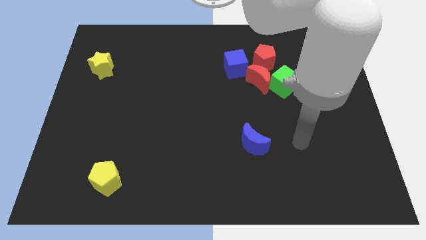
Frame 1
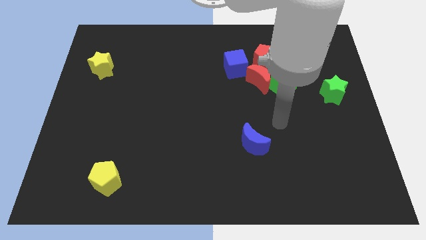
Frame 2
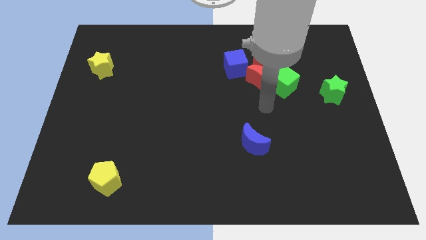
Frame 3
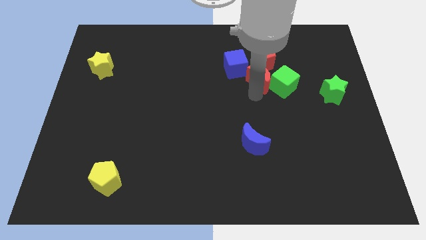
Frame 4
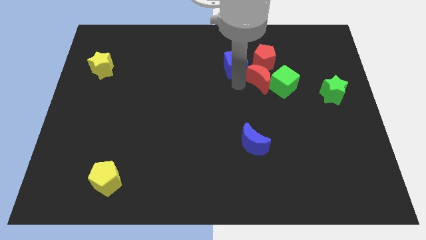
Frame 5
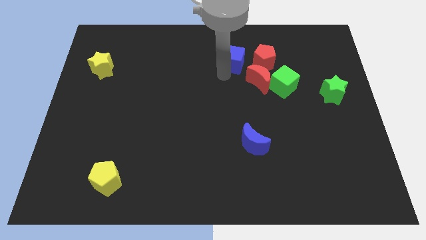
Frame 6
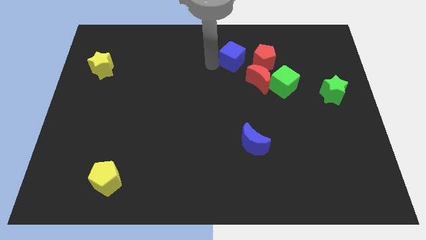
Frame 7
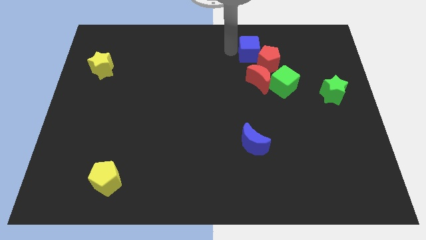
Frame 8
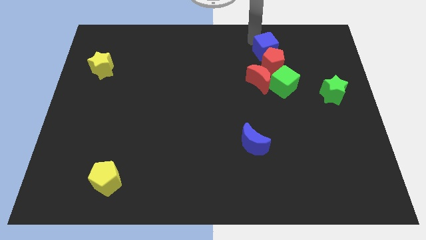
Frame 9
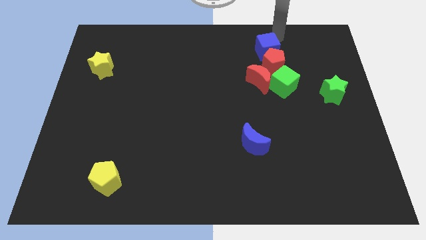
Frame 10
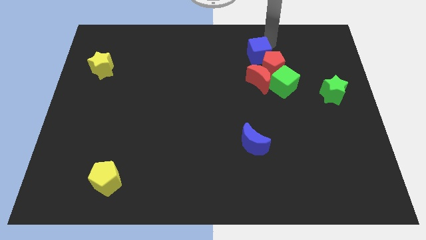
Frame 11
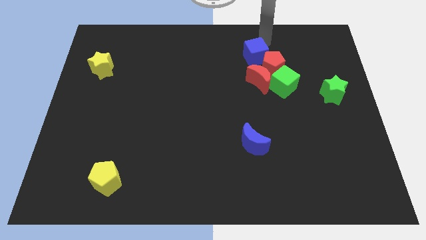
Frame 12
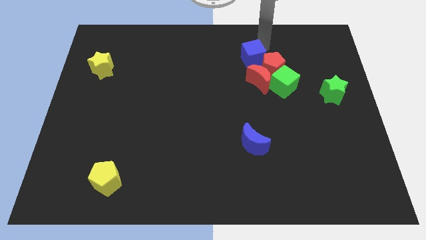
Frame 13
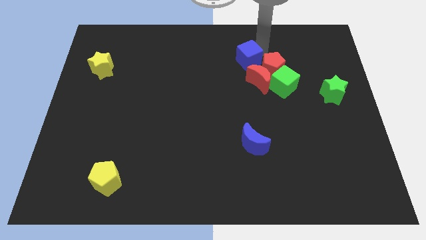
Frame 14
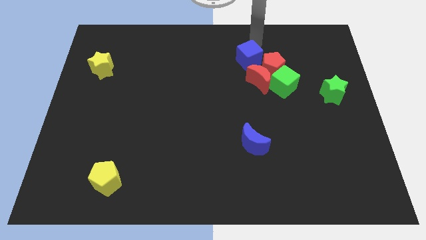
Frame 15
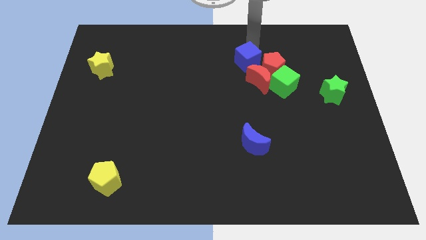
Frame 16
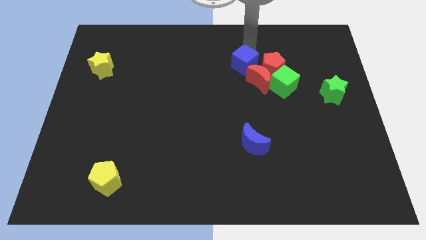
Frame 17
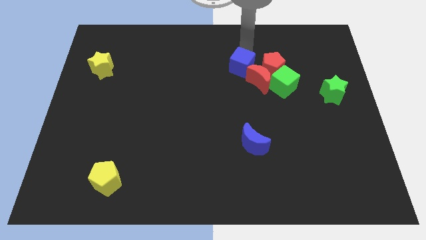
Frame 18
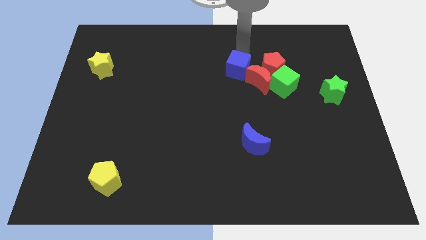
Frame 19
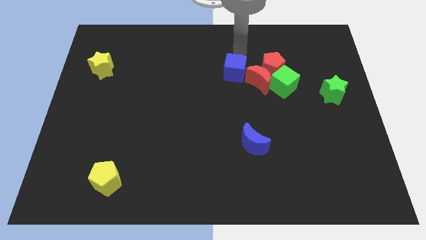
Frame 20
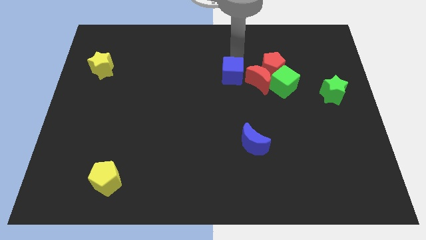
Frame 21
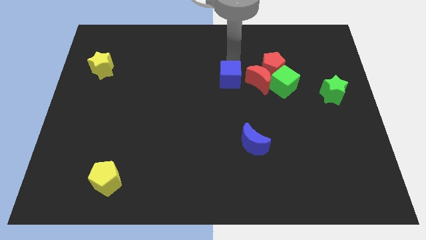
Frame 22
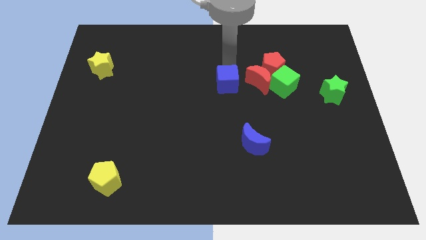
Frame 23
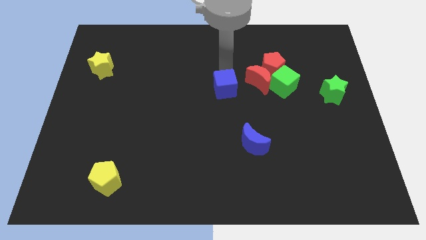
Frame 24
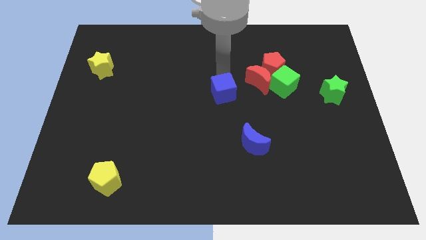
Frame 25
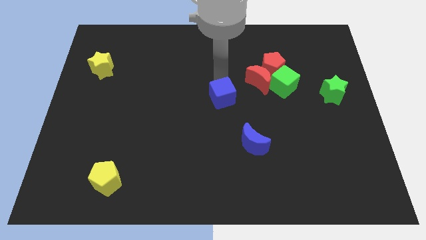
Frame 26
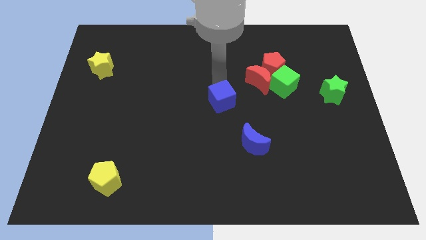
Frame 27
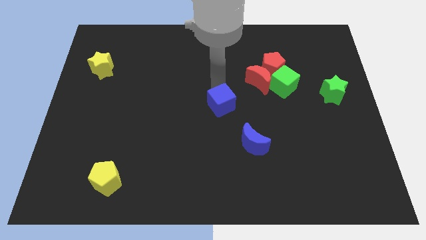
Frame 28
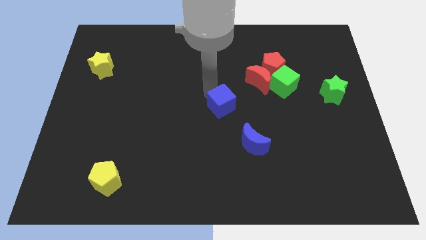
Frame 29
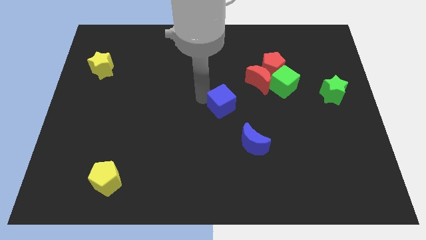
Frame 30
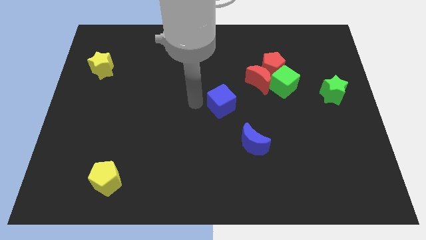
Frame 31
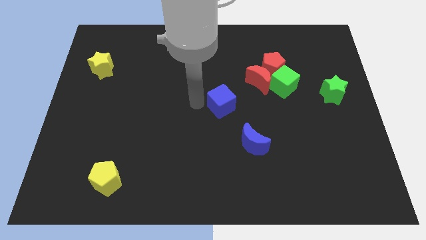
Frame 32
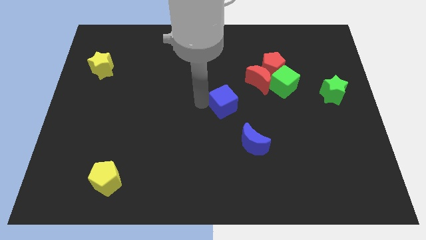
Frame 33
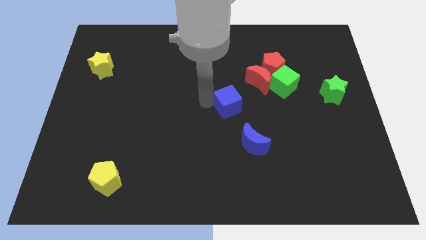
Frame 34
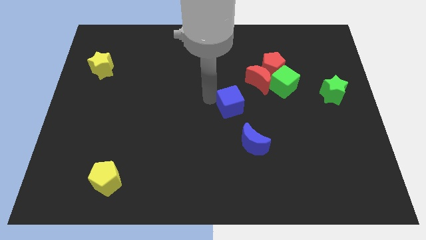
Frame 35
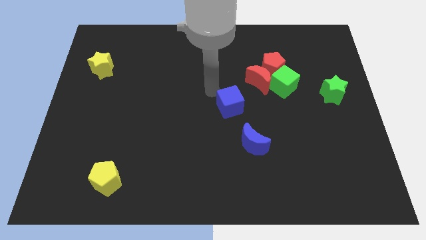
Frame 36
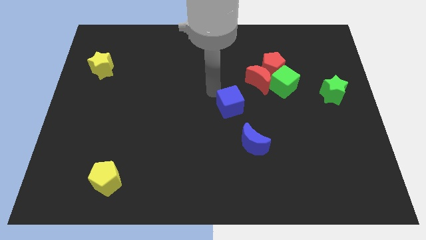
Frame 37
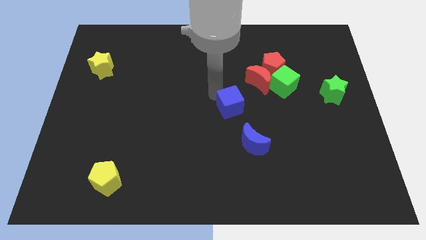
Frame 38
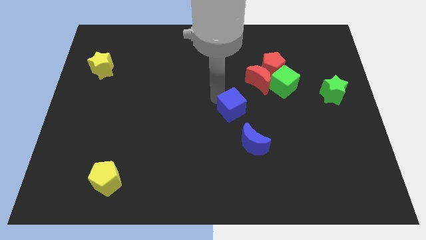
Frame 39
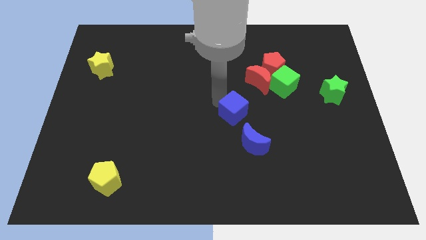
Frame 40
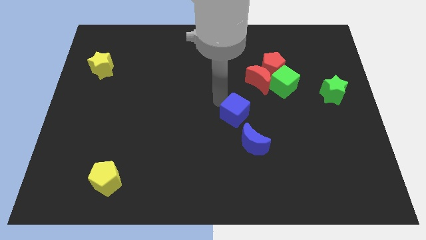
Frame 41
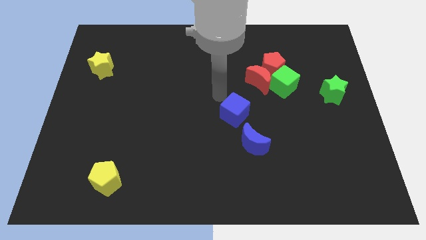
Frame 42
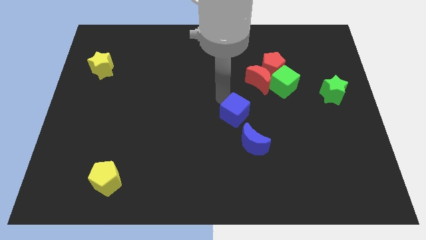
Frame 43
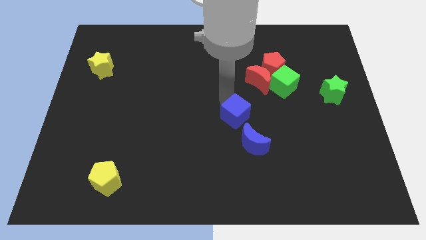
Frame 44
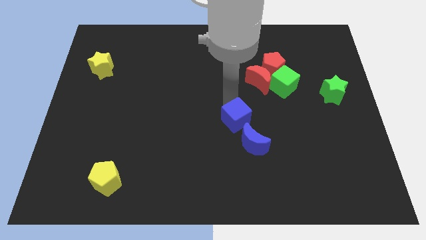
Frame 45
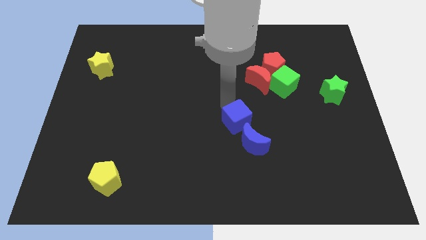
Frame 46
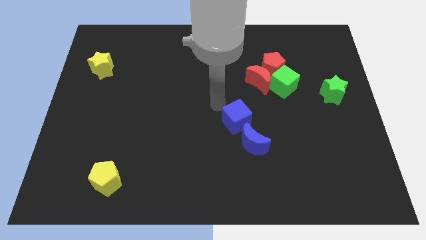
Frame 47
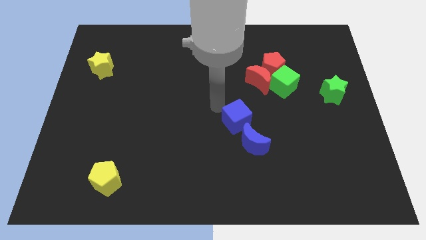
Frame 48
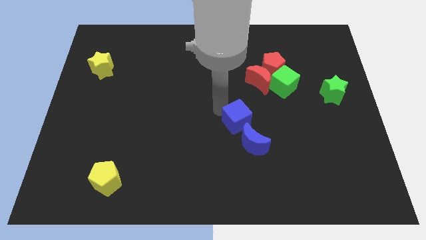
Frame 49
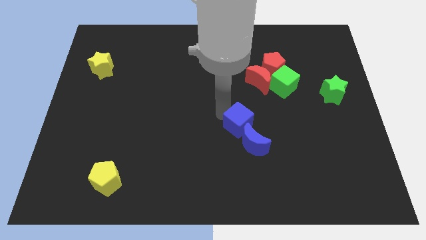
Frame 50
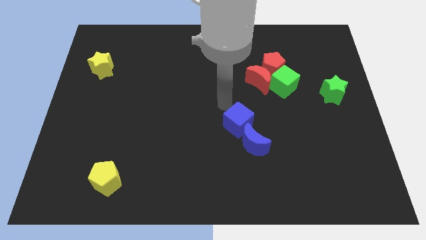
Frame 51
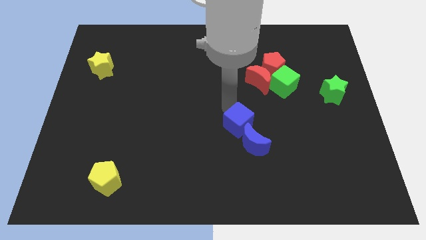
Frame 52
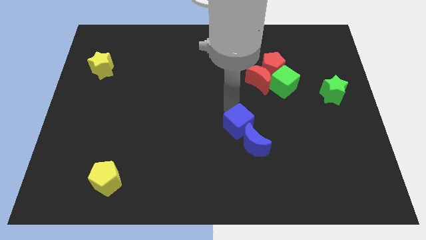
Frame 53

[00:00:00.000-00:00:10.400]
put the blue cube to the blue moon

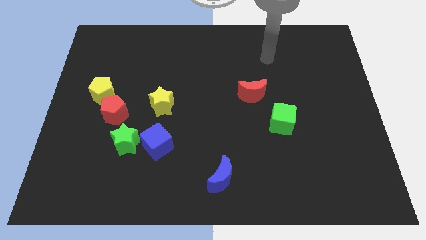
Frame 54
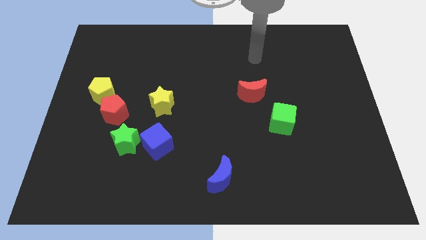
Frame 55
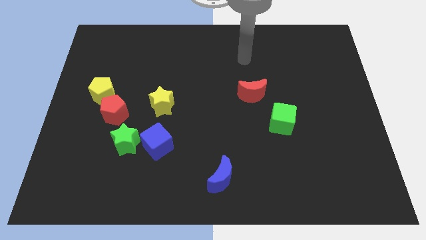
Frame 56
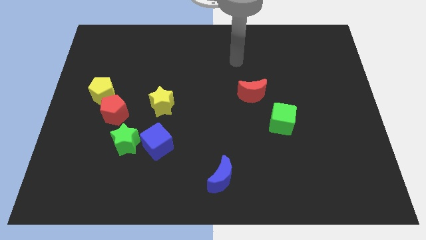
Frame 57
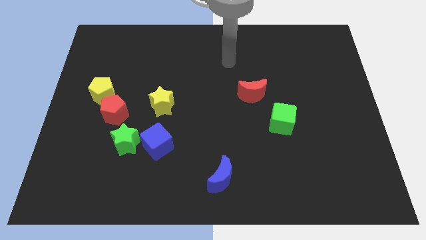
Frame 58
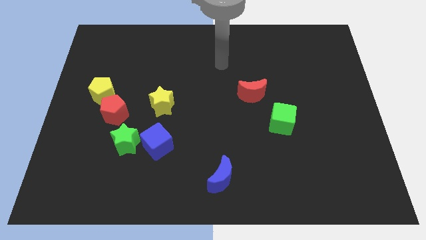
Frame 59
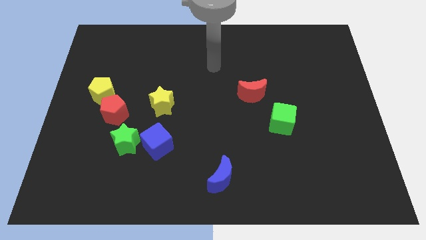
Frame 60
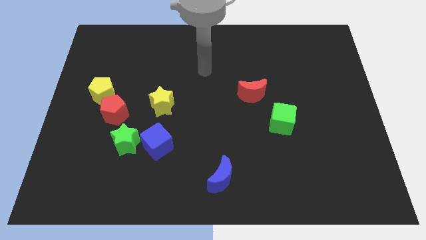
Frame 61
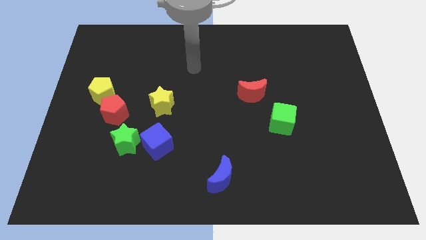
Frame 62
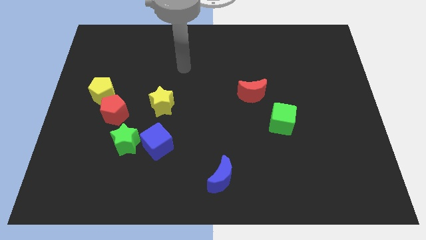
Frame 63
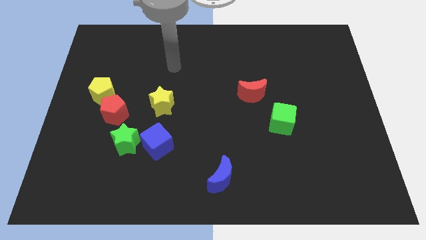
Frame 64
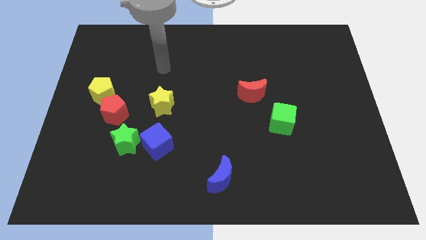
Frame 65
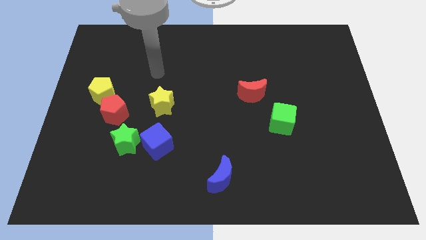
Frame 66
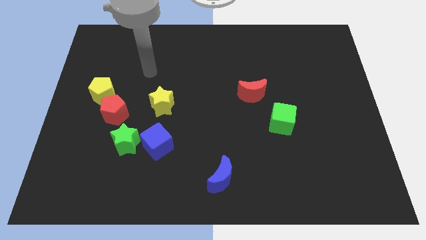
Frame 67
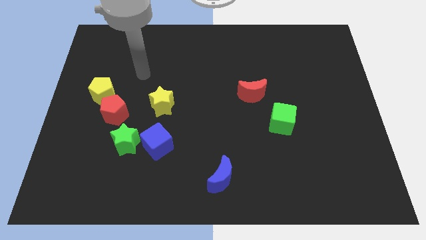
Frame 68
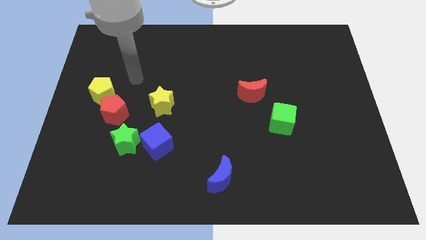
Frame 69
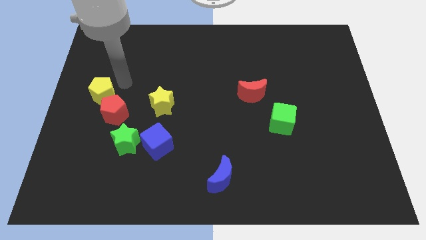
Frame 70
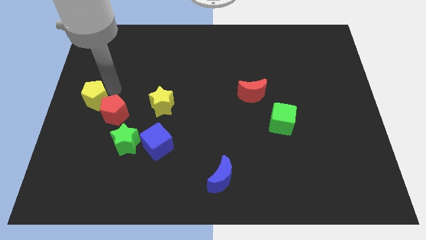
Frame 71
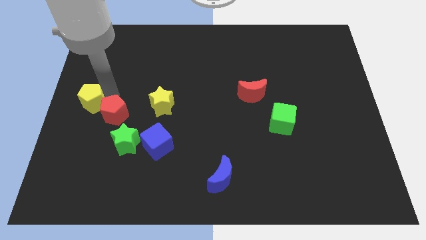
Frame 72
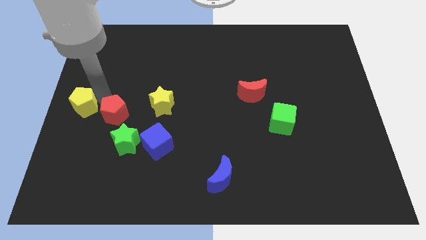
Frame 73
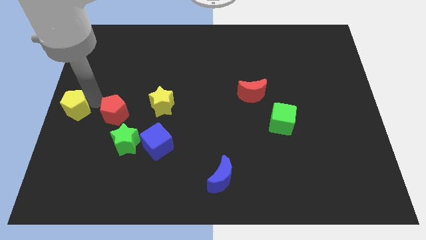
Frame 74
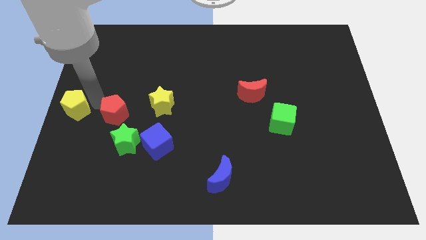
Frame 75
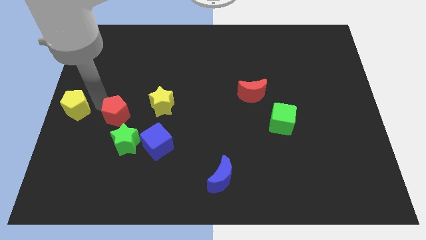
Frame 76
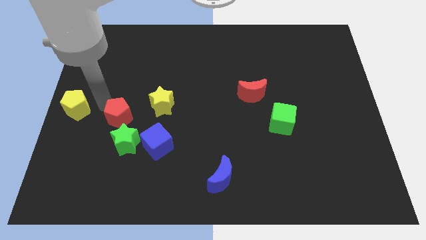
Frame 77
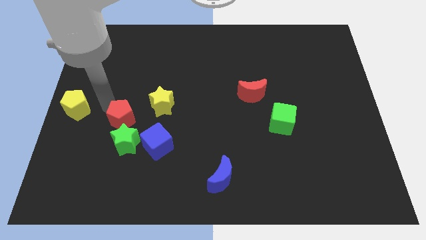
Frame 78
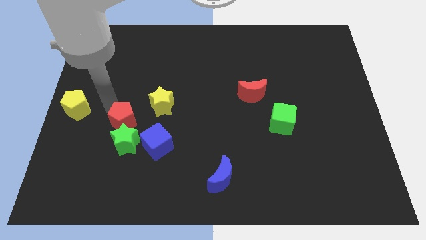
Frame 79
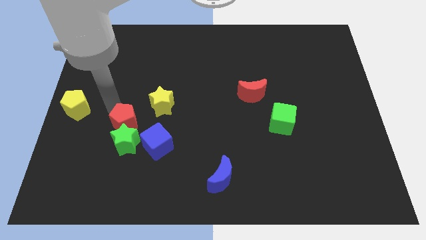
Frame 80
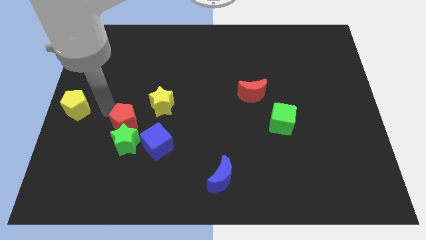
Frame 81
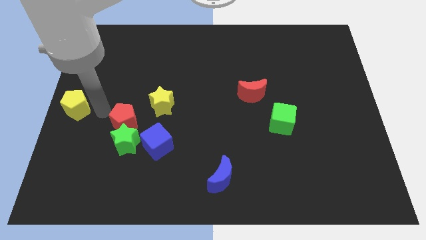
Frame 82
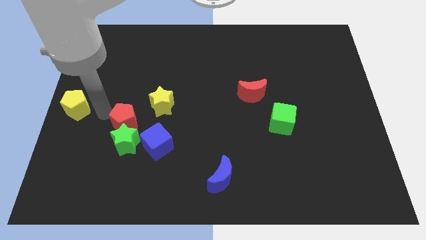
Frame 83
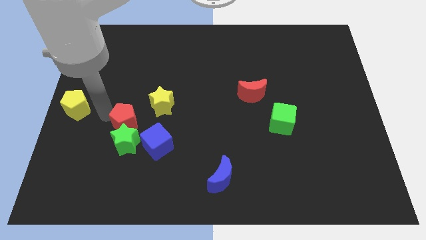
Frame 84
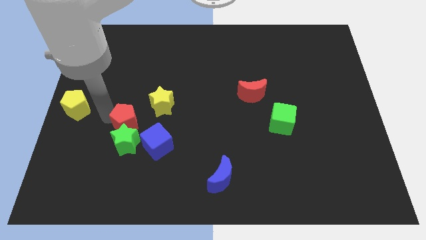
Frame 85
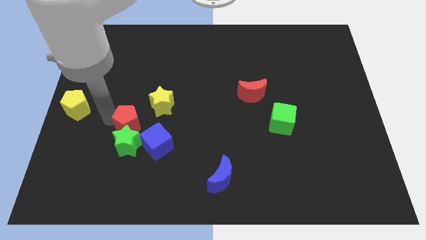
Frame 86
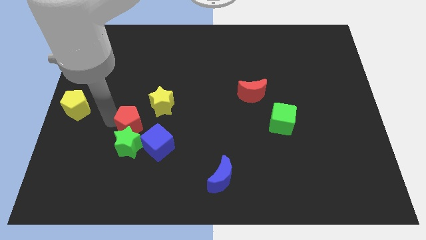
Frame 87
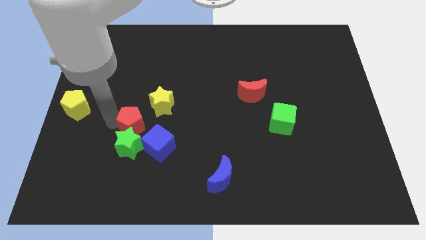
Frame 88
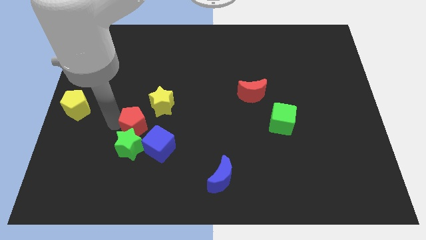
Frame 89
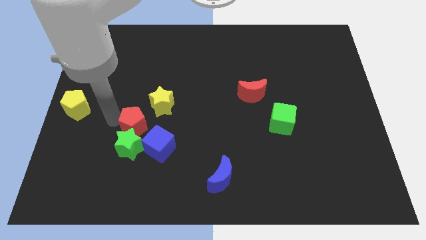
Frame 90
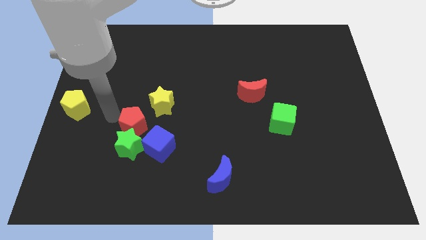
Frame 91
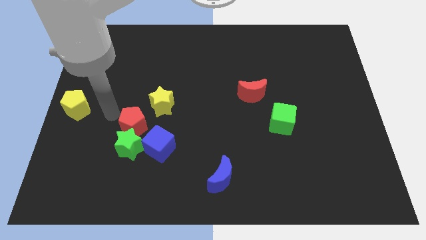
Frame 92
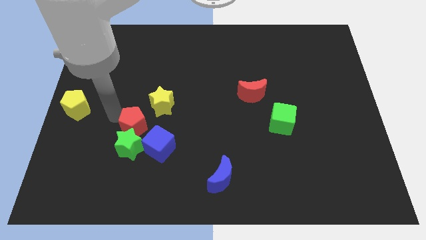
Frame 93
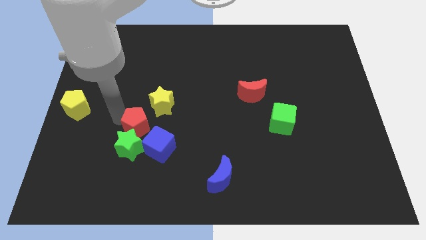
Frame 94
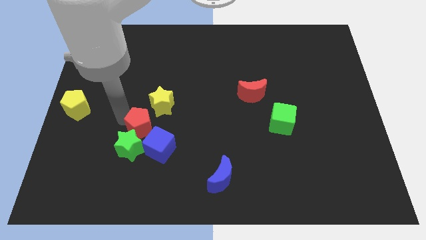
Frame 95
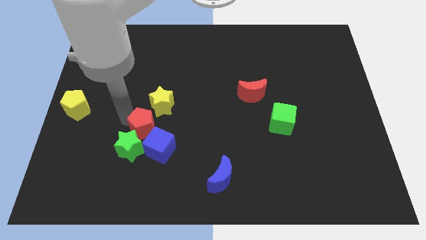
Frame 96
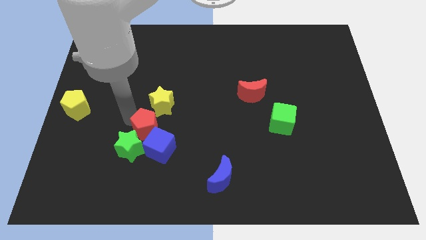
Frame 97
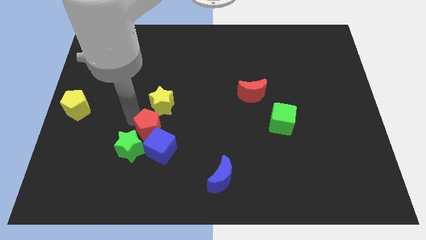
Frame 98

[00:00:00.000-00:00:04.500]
slide the red pentagon towards the blue cube
